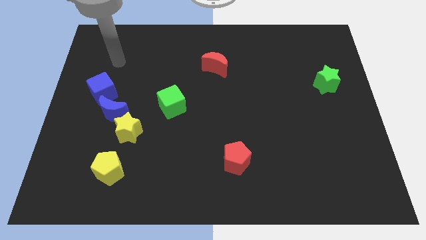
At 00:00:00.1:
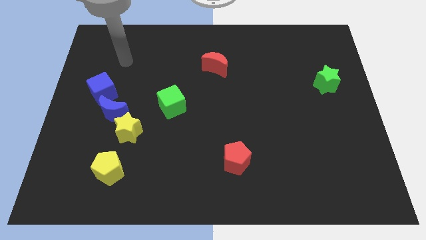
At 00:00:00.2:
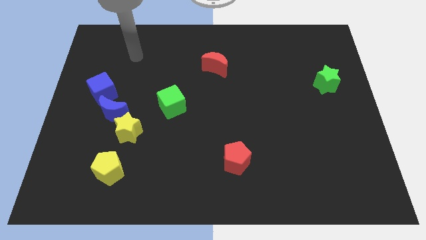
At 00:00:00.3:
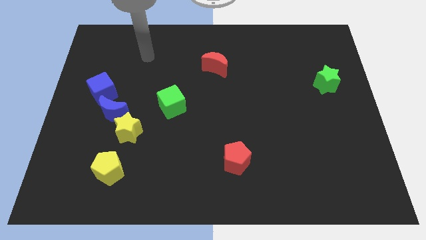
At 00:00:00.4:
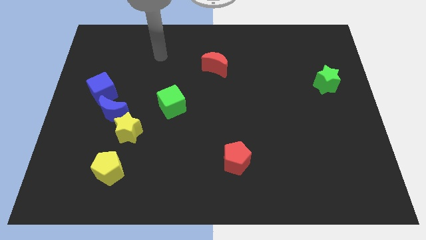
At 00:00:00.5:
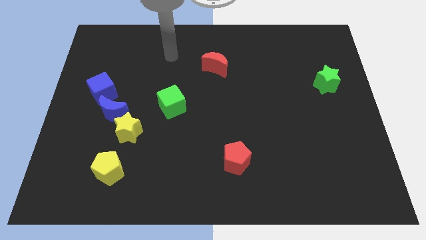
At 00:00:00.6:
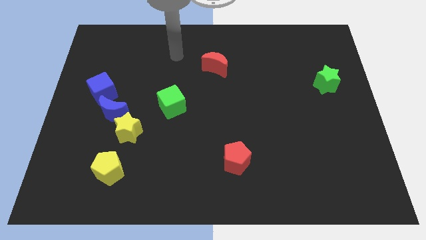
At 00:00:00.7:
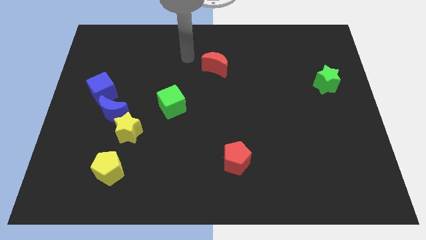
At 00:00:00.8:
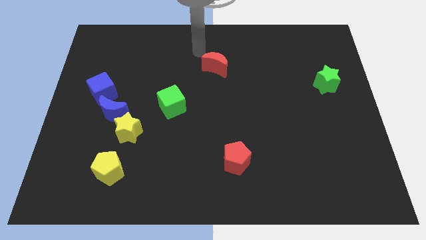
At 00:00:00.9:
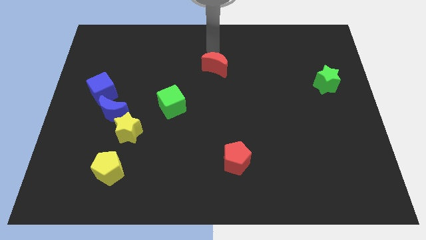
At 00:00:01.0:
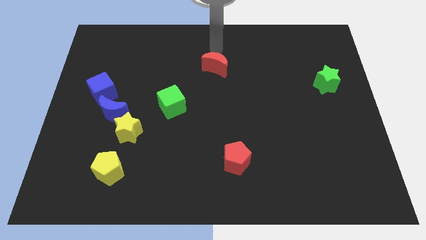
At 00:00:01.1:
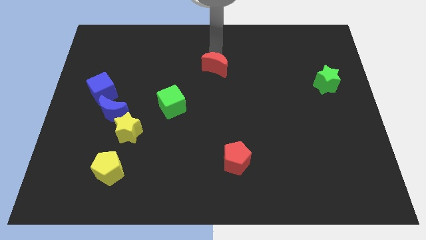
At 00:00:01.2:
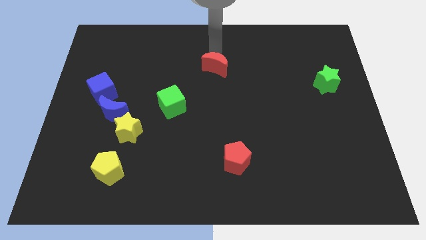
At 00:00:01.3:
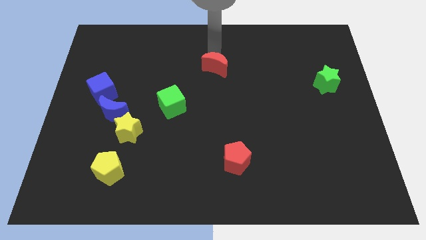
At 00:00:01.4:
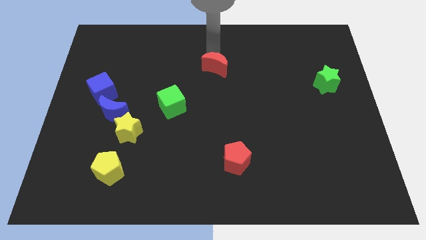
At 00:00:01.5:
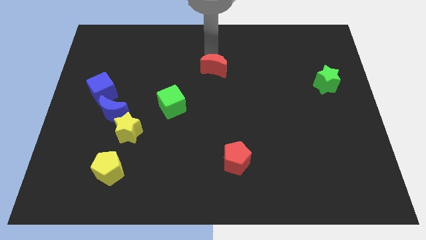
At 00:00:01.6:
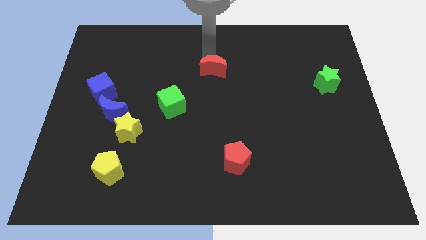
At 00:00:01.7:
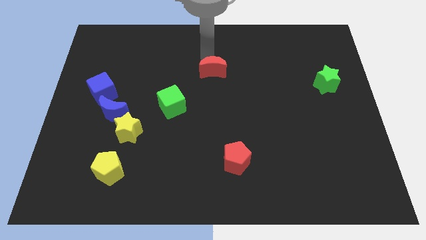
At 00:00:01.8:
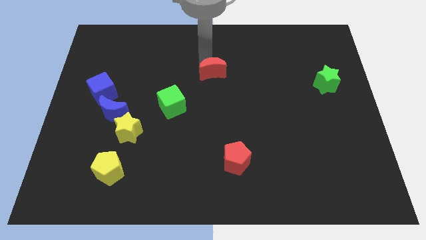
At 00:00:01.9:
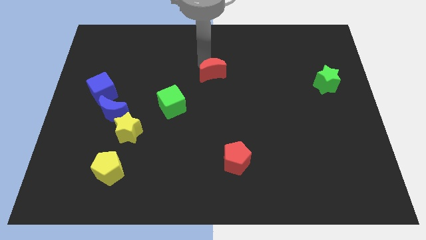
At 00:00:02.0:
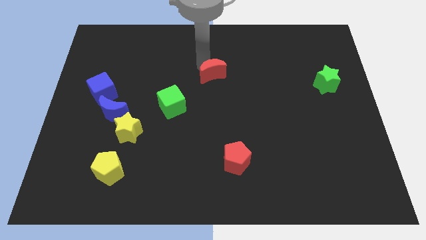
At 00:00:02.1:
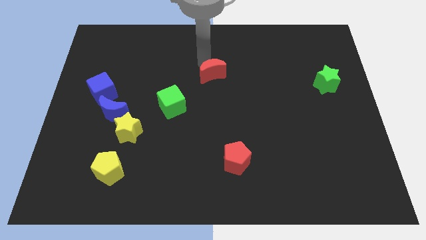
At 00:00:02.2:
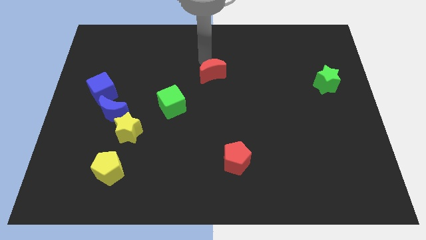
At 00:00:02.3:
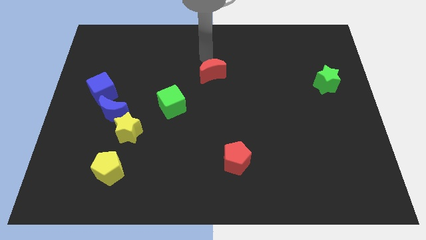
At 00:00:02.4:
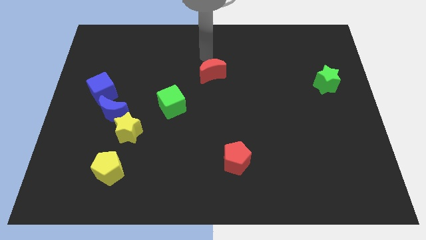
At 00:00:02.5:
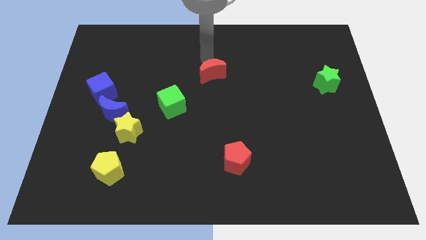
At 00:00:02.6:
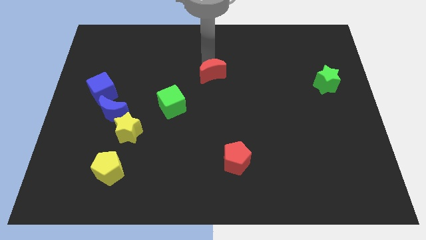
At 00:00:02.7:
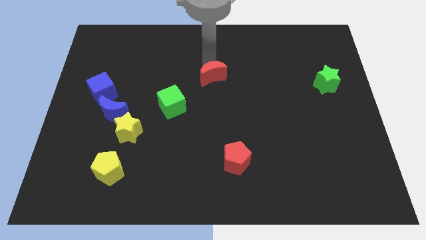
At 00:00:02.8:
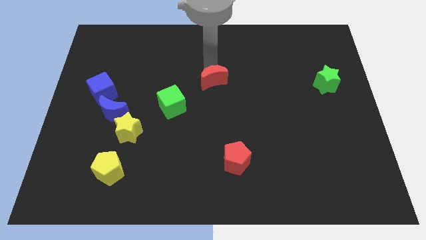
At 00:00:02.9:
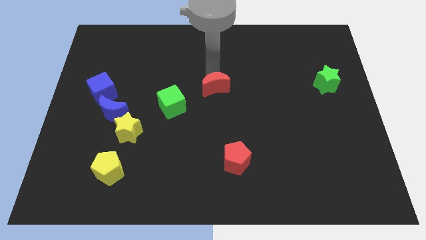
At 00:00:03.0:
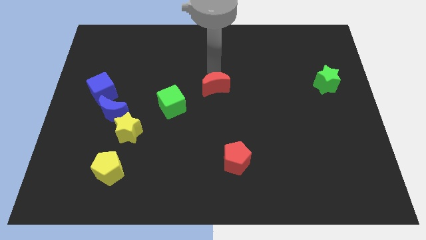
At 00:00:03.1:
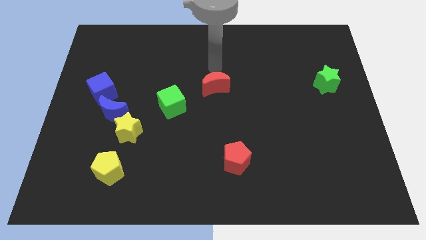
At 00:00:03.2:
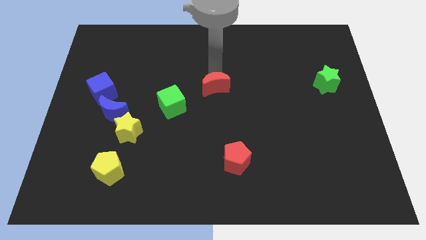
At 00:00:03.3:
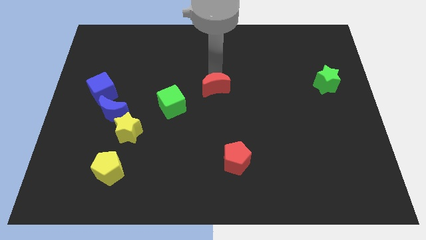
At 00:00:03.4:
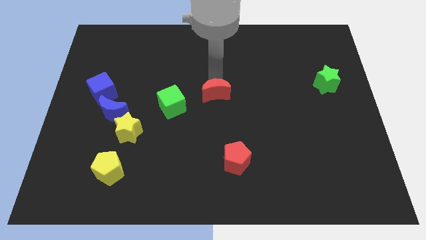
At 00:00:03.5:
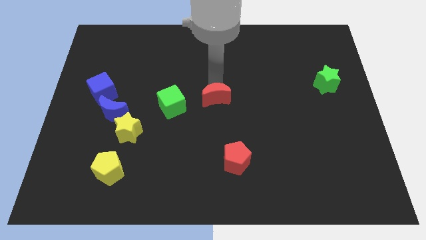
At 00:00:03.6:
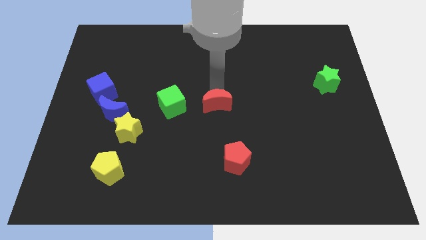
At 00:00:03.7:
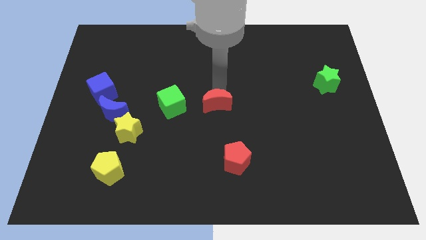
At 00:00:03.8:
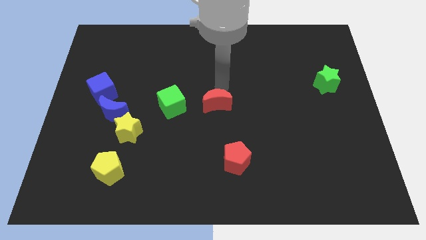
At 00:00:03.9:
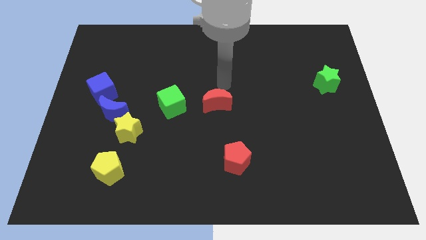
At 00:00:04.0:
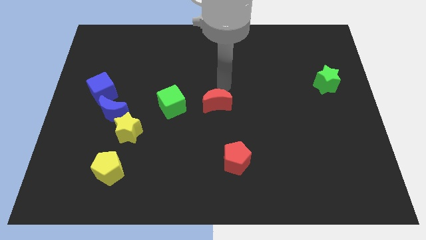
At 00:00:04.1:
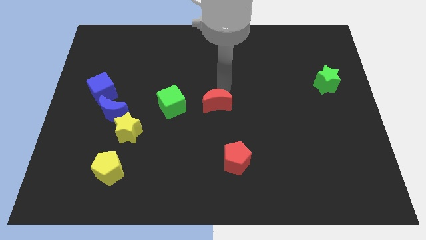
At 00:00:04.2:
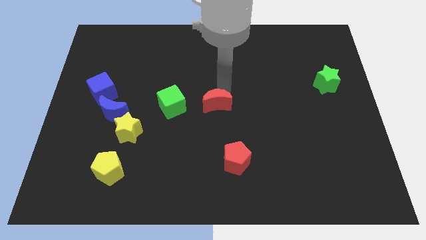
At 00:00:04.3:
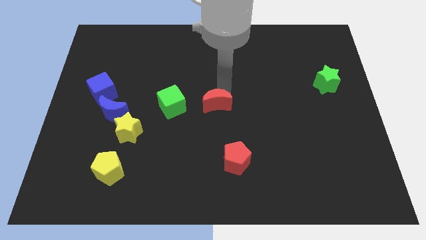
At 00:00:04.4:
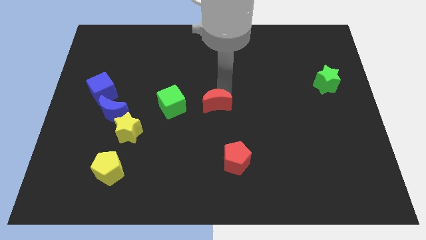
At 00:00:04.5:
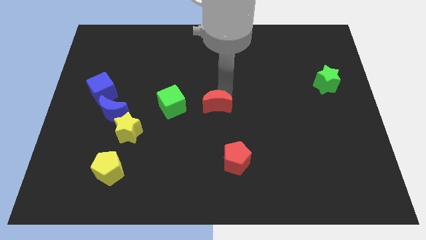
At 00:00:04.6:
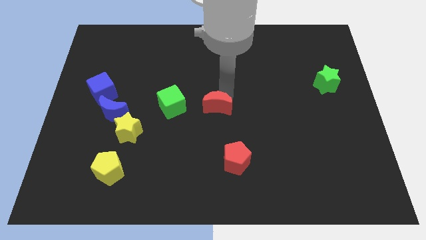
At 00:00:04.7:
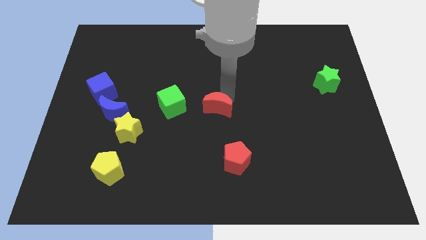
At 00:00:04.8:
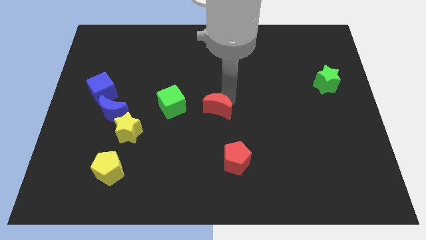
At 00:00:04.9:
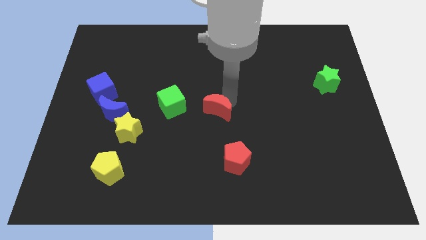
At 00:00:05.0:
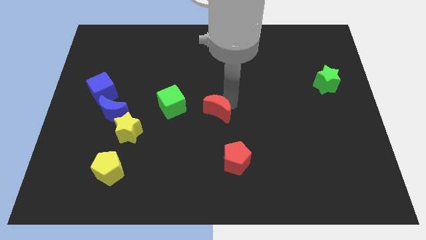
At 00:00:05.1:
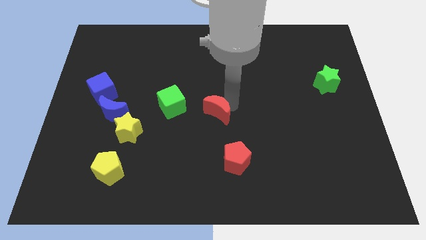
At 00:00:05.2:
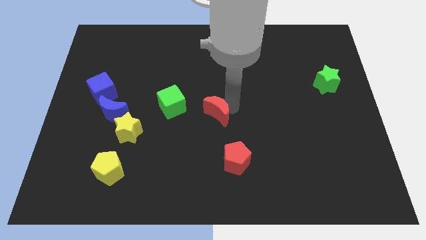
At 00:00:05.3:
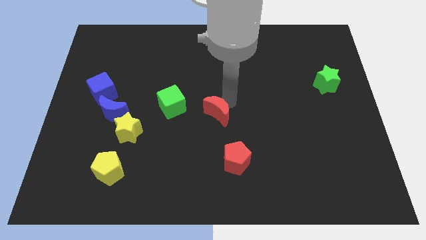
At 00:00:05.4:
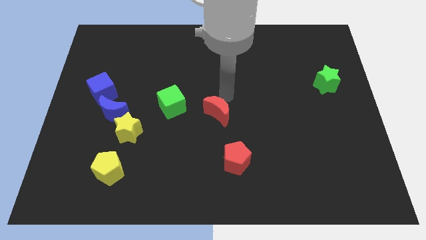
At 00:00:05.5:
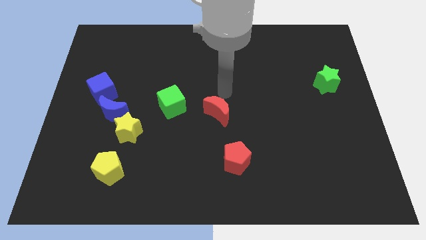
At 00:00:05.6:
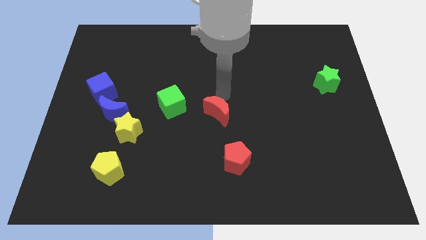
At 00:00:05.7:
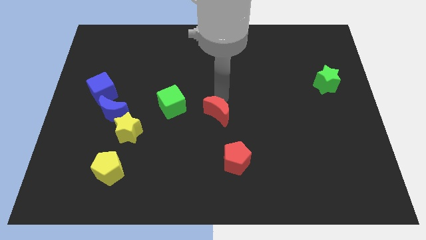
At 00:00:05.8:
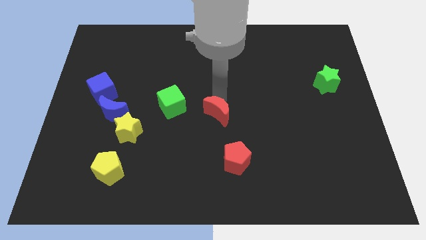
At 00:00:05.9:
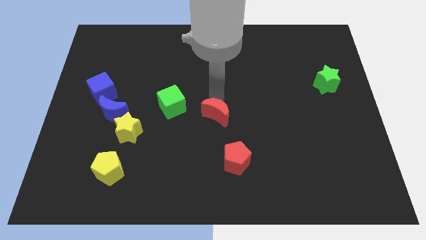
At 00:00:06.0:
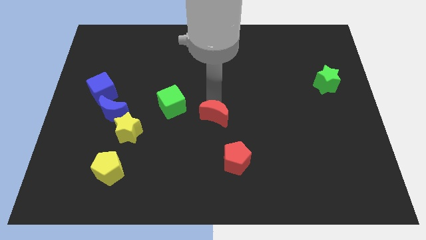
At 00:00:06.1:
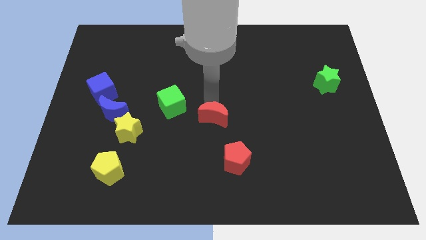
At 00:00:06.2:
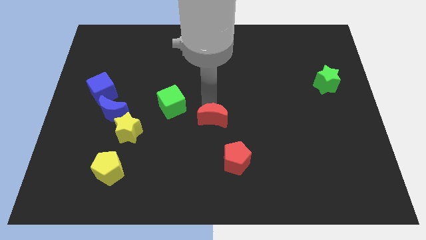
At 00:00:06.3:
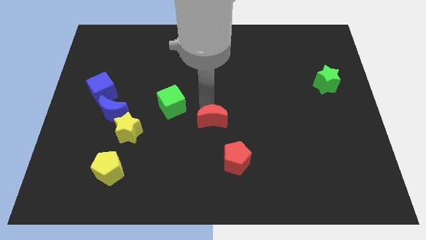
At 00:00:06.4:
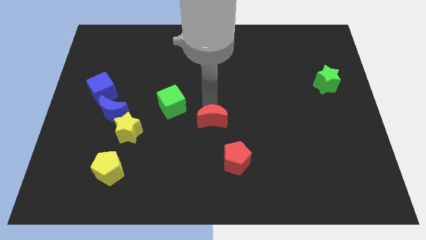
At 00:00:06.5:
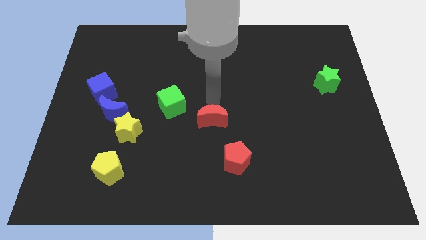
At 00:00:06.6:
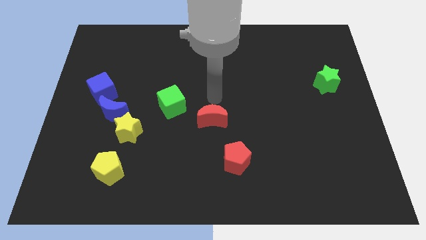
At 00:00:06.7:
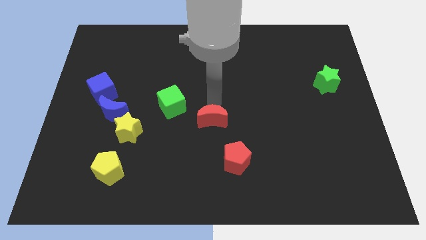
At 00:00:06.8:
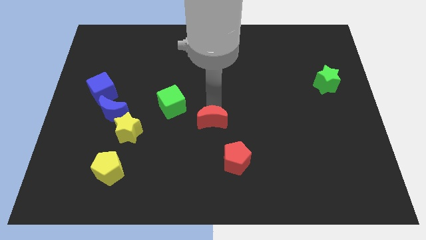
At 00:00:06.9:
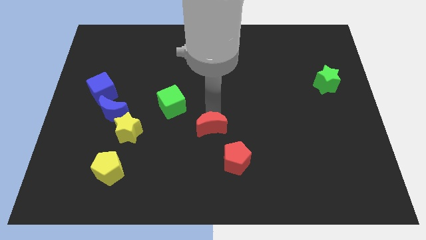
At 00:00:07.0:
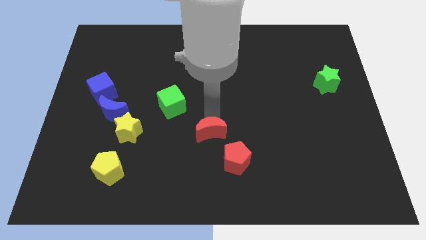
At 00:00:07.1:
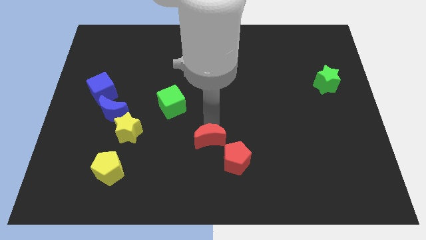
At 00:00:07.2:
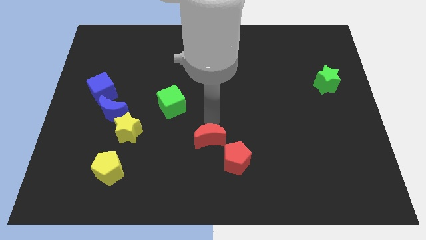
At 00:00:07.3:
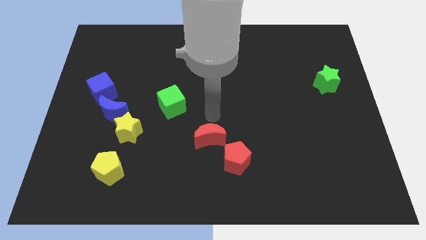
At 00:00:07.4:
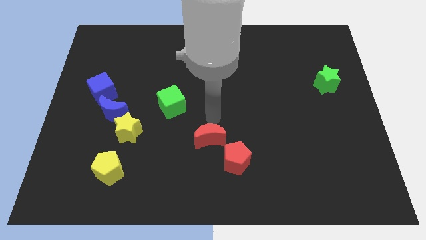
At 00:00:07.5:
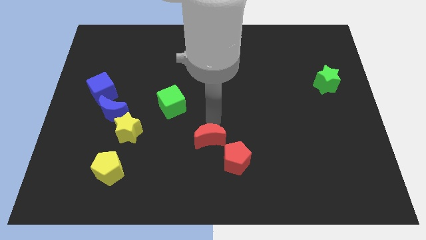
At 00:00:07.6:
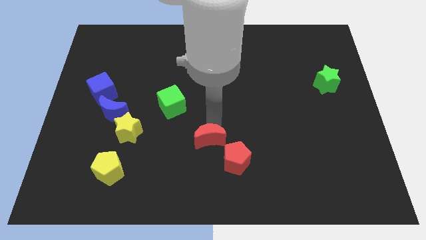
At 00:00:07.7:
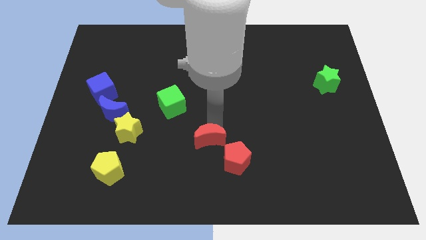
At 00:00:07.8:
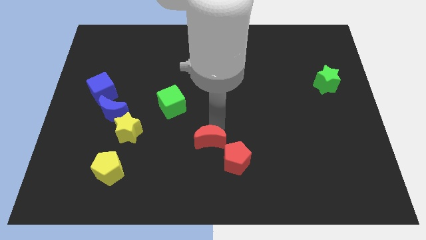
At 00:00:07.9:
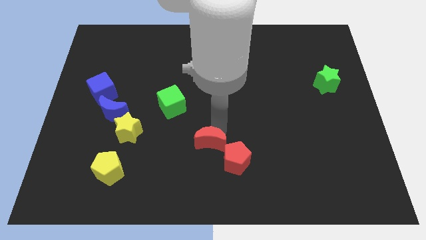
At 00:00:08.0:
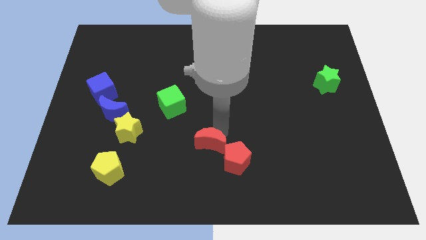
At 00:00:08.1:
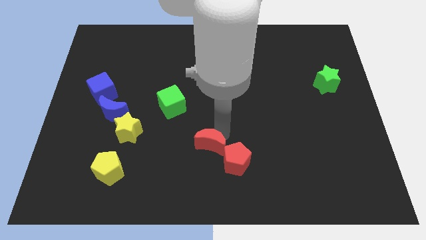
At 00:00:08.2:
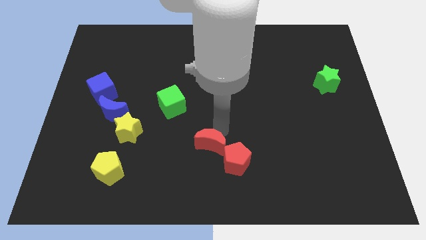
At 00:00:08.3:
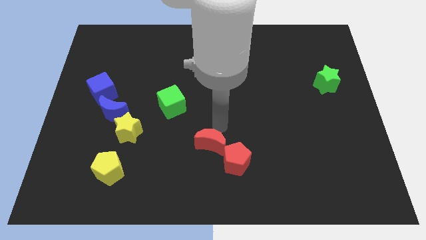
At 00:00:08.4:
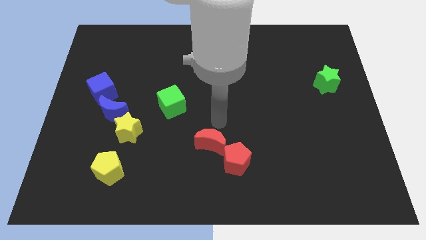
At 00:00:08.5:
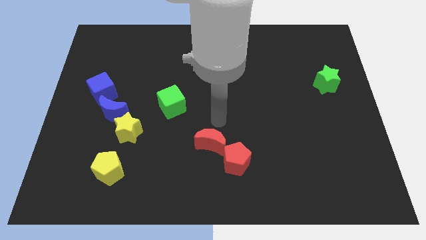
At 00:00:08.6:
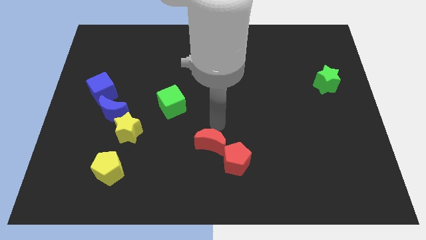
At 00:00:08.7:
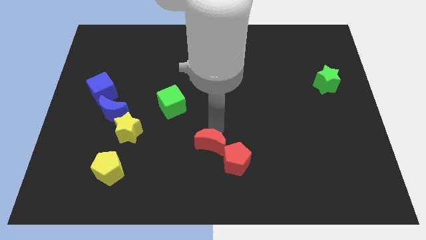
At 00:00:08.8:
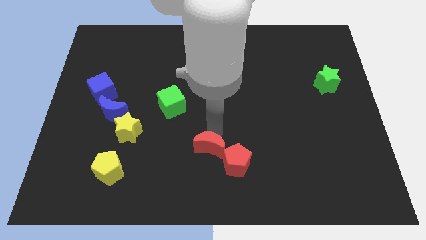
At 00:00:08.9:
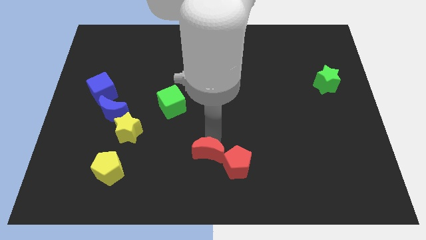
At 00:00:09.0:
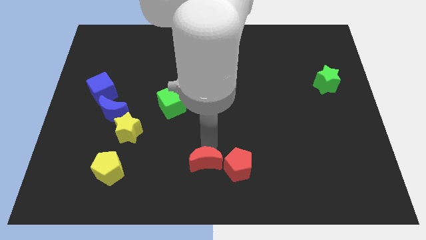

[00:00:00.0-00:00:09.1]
move the red moon to the bottom side
